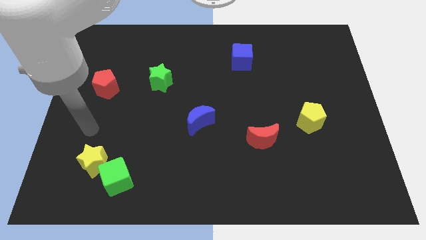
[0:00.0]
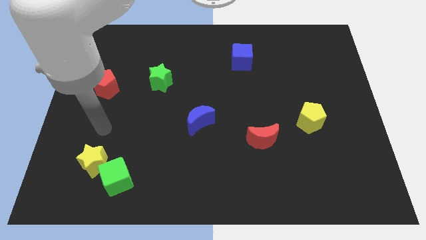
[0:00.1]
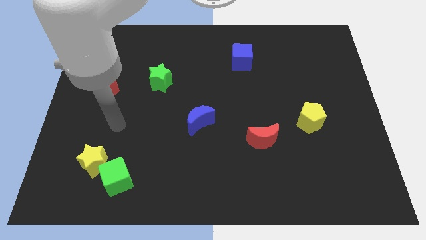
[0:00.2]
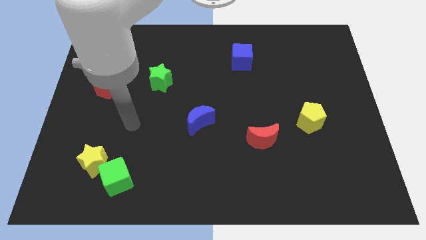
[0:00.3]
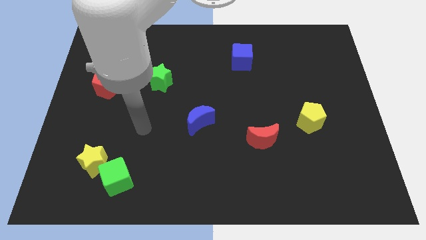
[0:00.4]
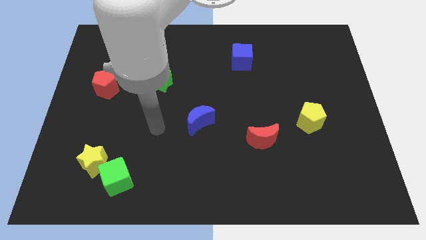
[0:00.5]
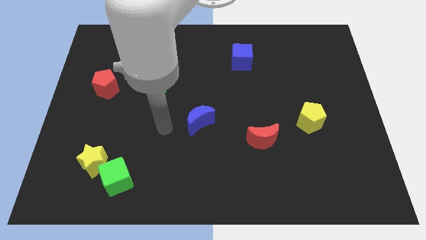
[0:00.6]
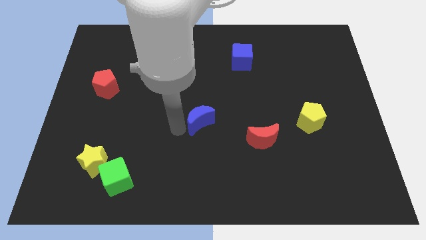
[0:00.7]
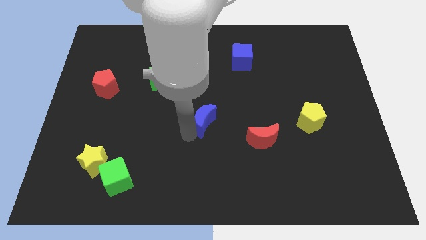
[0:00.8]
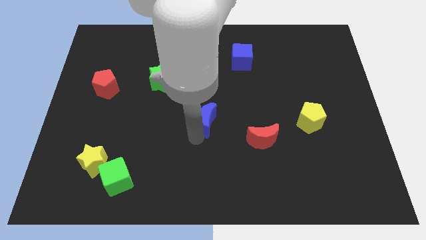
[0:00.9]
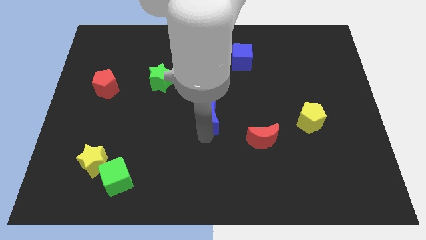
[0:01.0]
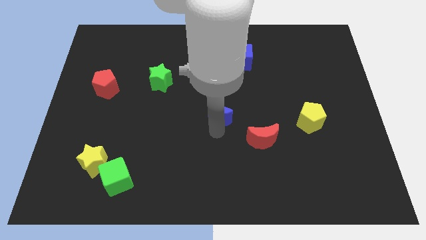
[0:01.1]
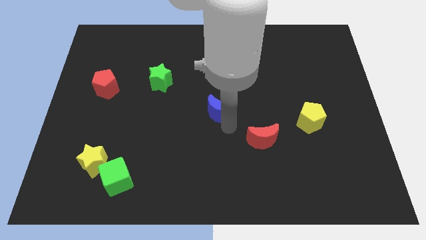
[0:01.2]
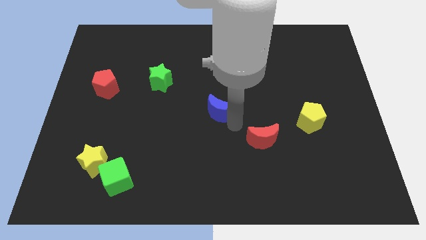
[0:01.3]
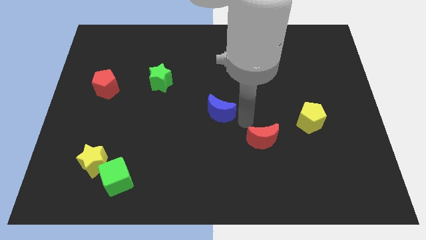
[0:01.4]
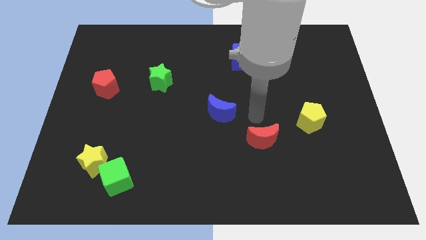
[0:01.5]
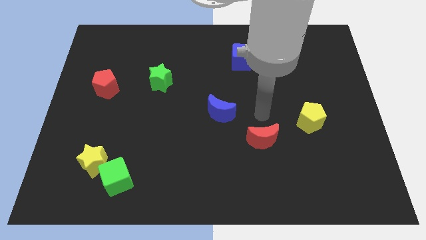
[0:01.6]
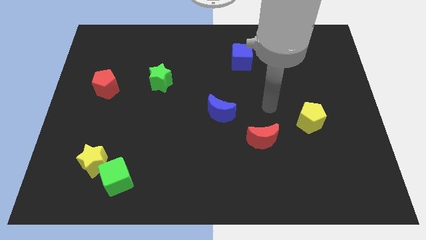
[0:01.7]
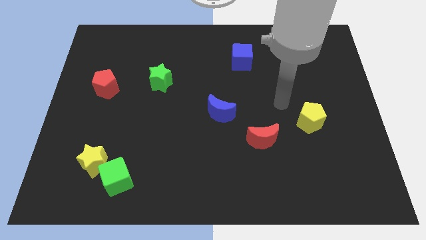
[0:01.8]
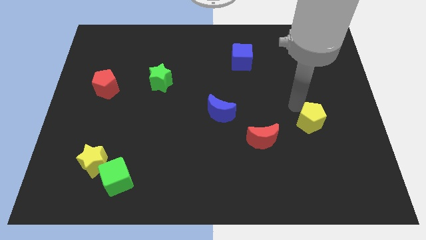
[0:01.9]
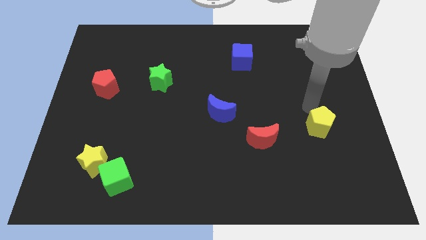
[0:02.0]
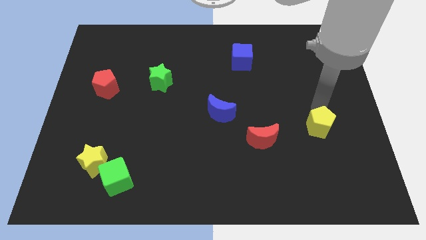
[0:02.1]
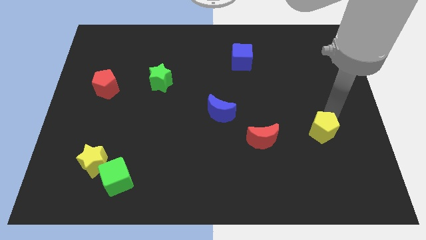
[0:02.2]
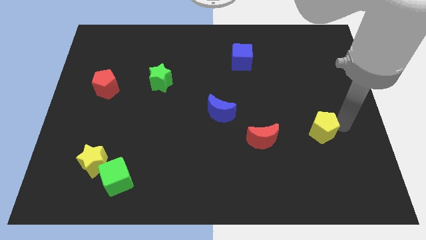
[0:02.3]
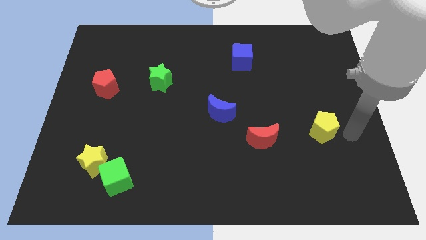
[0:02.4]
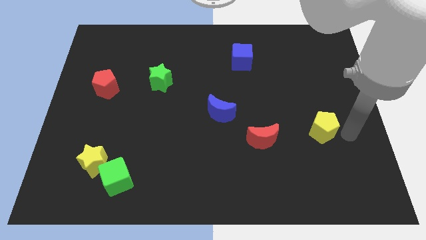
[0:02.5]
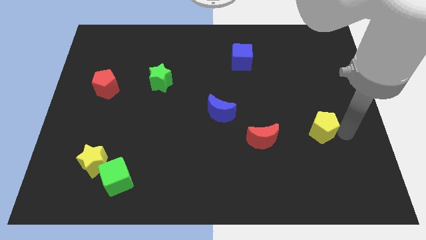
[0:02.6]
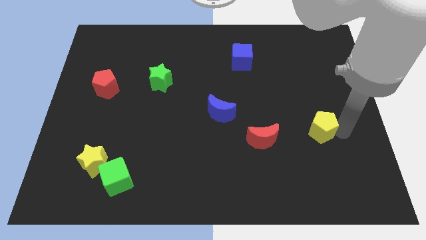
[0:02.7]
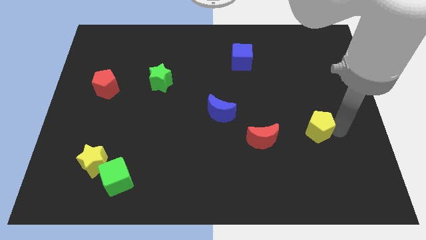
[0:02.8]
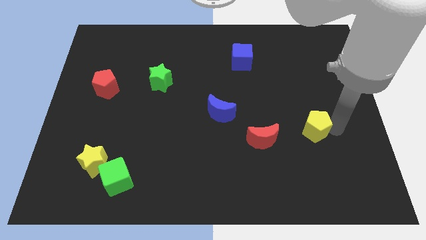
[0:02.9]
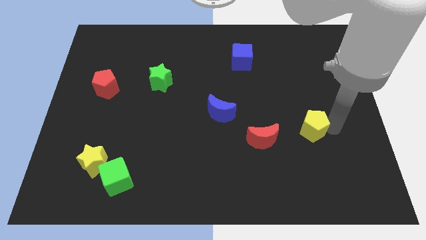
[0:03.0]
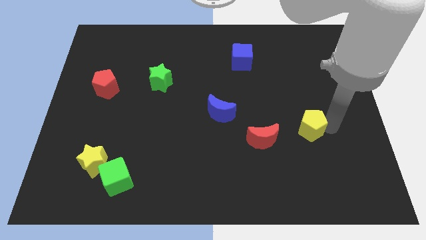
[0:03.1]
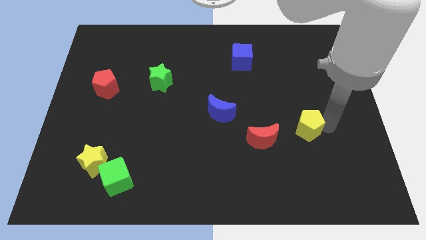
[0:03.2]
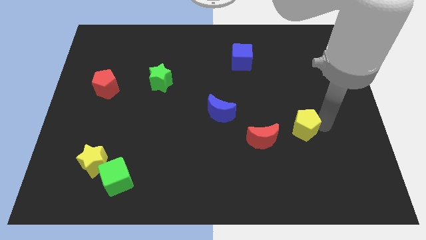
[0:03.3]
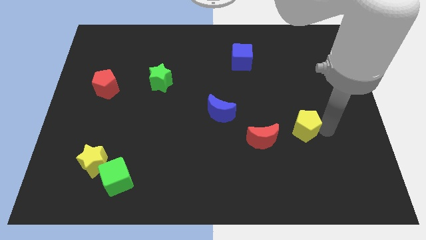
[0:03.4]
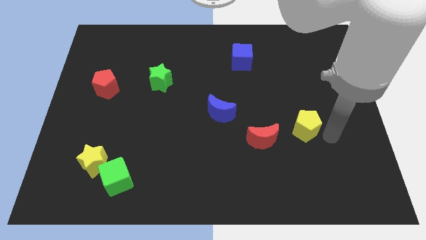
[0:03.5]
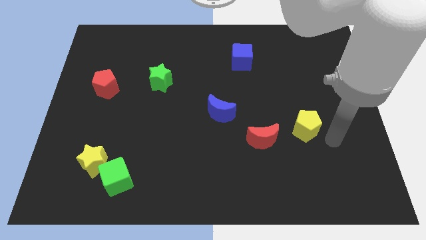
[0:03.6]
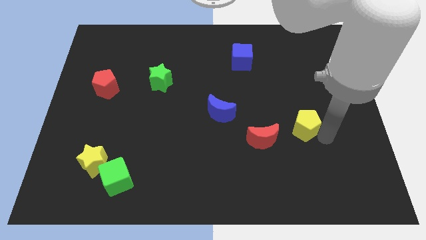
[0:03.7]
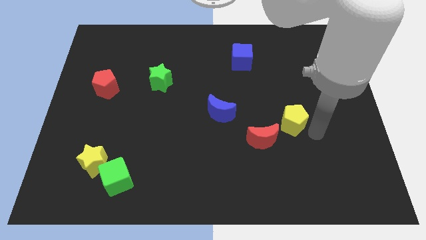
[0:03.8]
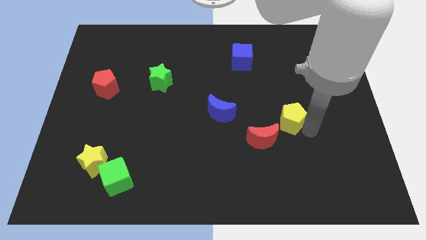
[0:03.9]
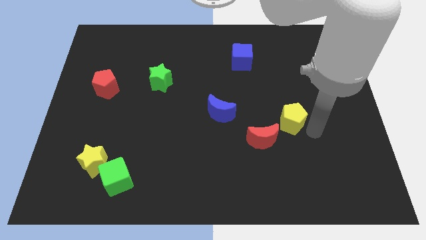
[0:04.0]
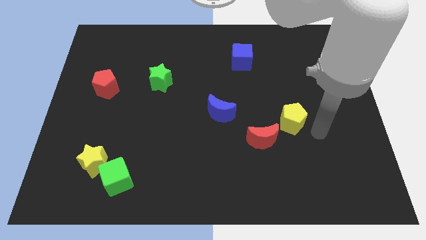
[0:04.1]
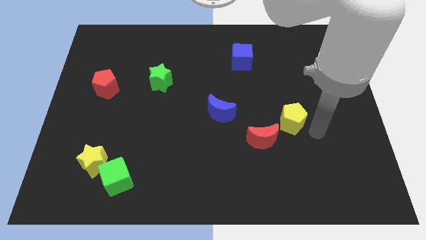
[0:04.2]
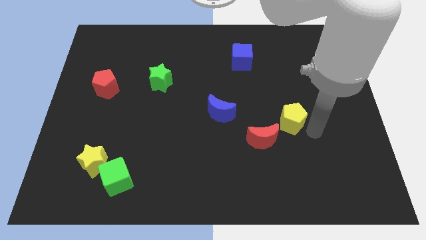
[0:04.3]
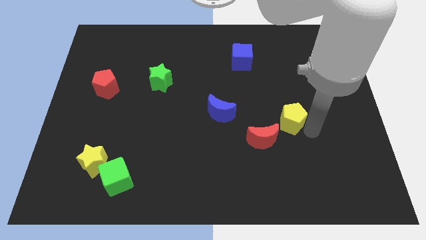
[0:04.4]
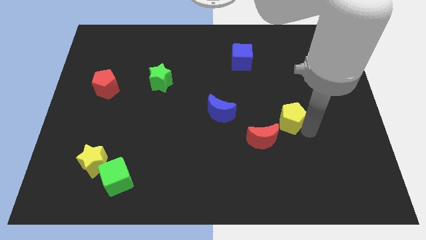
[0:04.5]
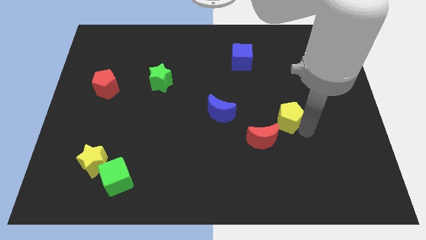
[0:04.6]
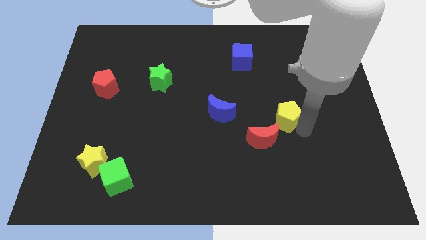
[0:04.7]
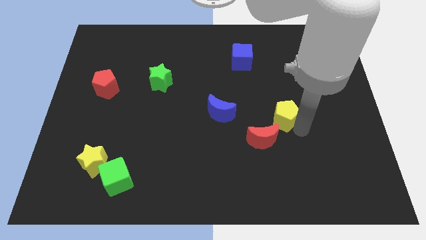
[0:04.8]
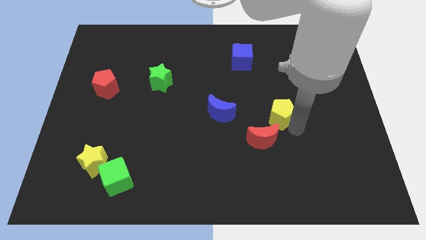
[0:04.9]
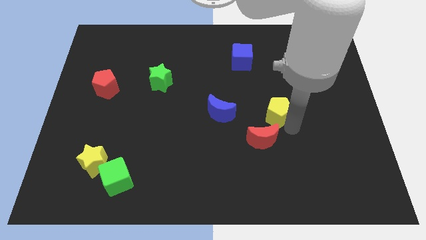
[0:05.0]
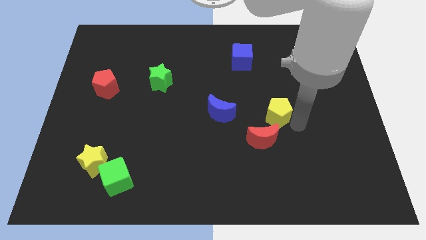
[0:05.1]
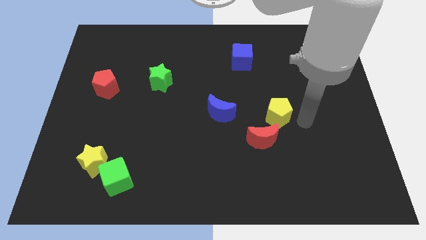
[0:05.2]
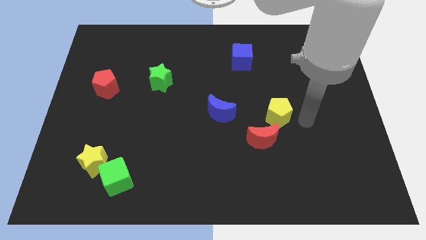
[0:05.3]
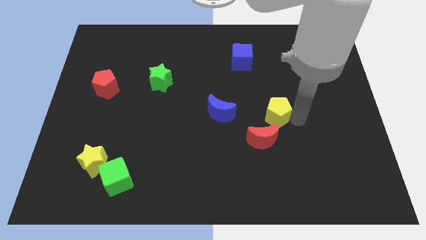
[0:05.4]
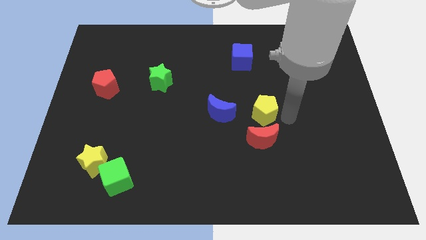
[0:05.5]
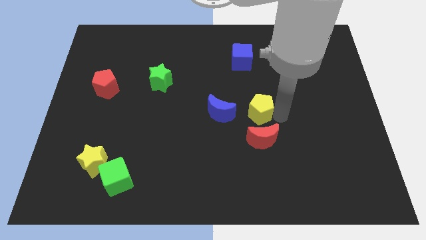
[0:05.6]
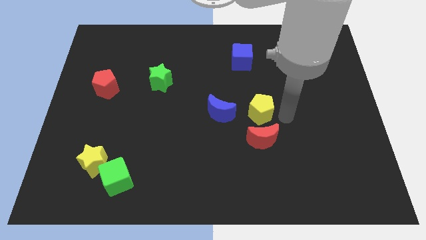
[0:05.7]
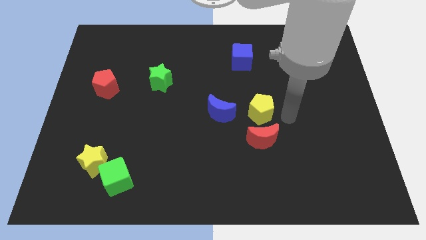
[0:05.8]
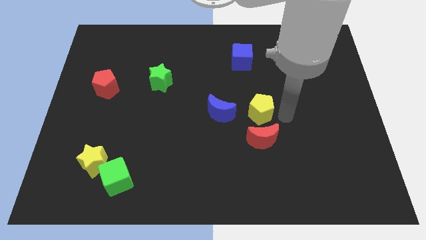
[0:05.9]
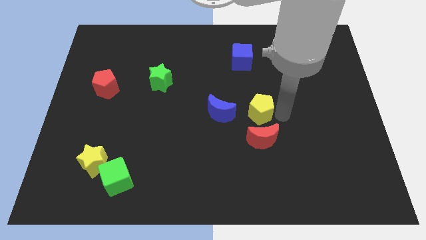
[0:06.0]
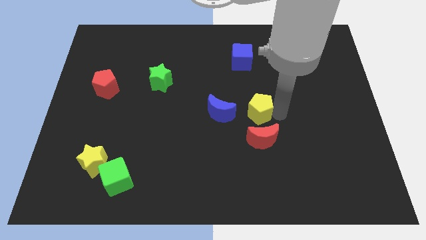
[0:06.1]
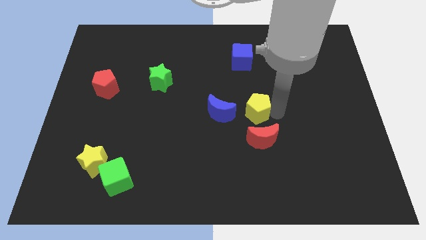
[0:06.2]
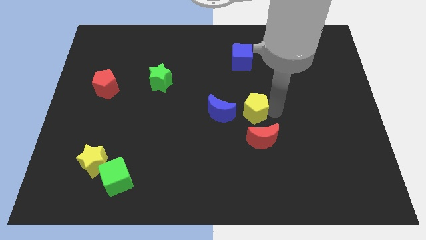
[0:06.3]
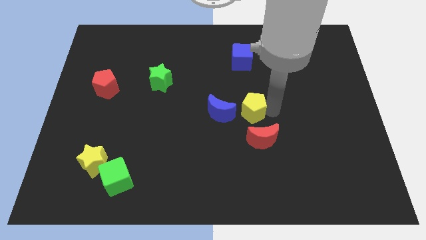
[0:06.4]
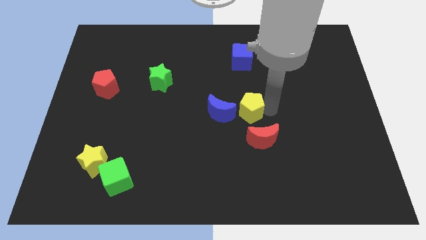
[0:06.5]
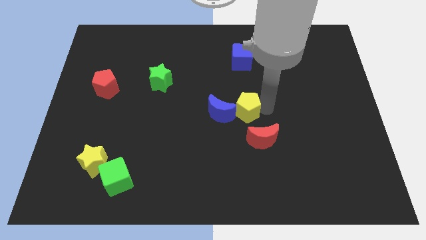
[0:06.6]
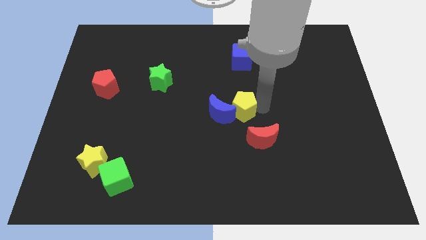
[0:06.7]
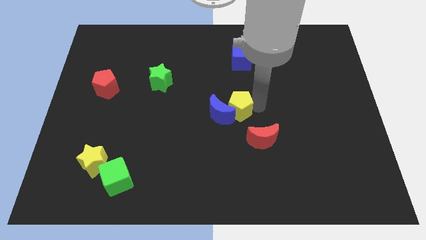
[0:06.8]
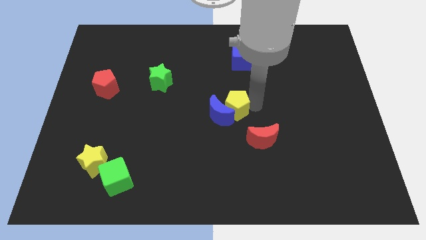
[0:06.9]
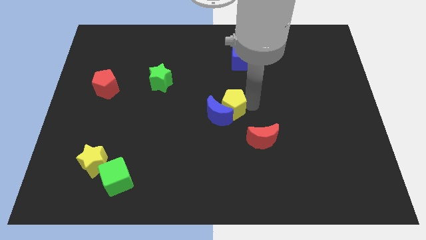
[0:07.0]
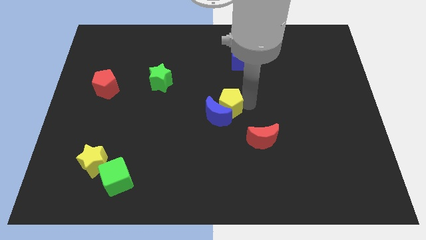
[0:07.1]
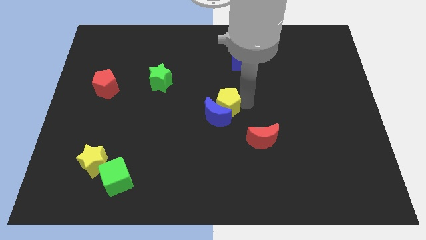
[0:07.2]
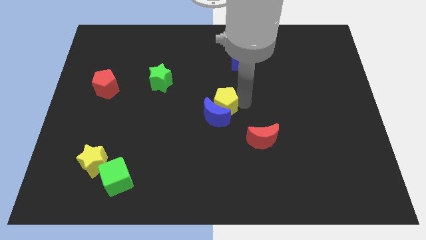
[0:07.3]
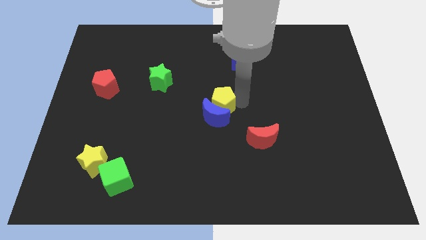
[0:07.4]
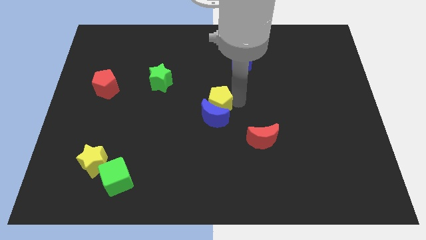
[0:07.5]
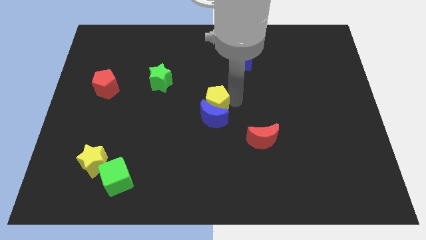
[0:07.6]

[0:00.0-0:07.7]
slide the yellow pentagon to the left
